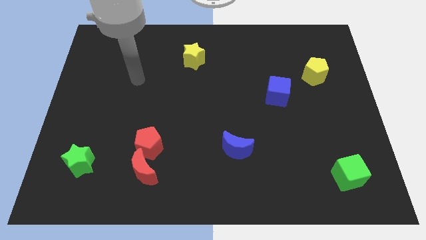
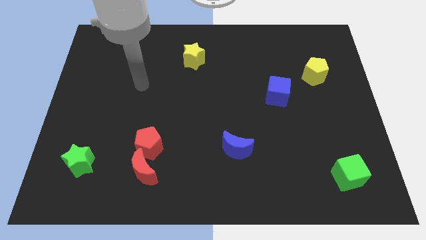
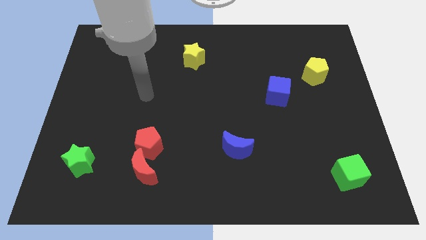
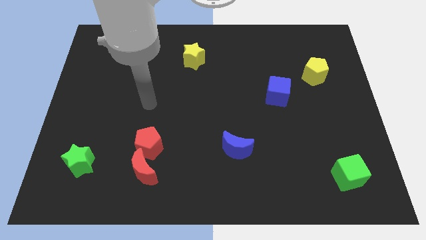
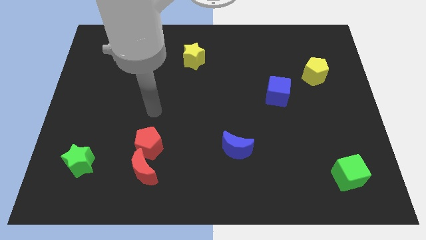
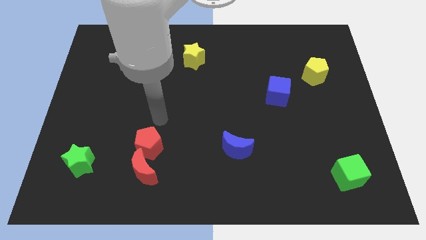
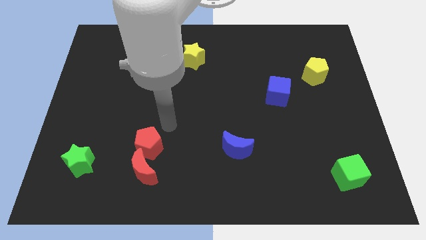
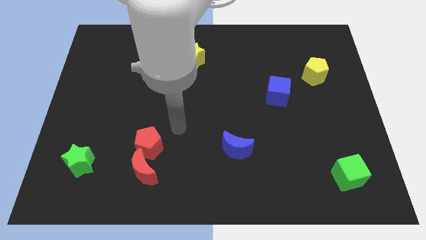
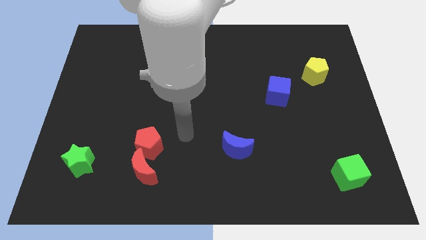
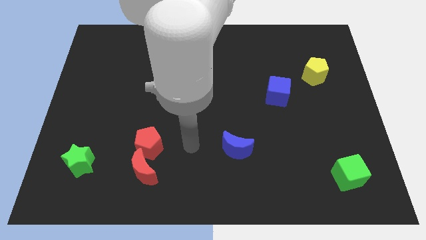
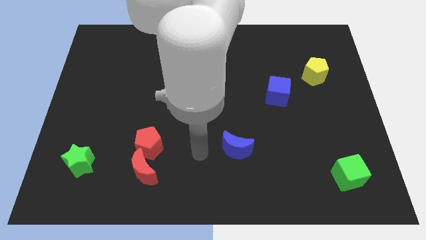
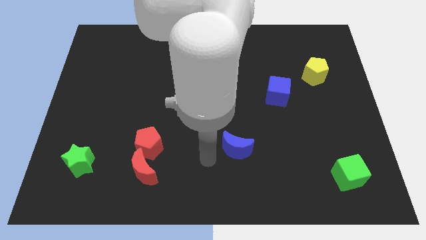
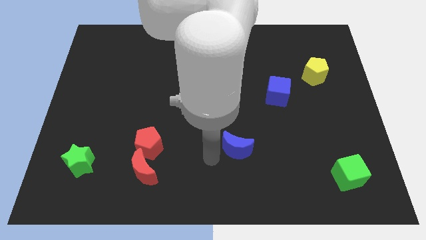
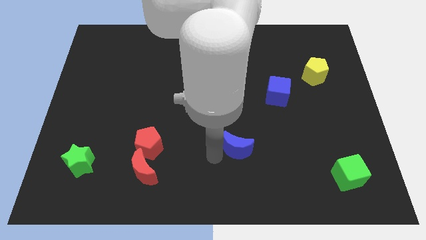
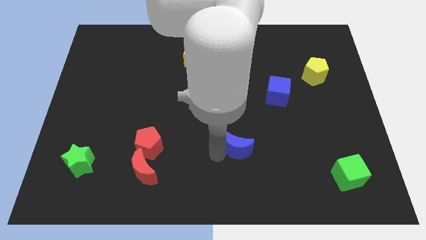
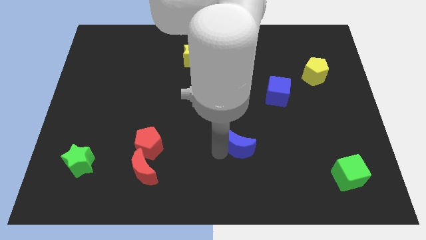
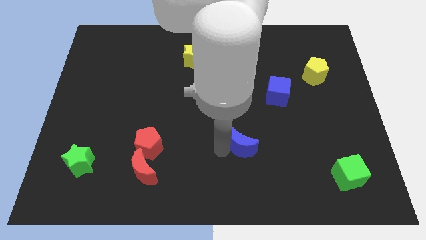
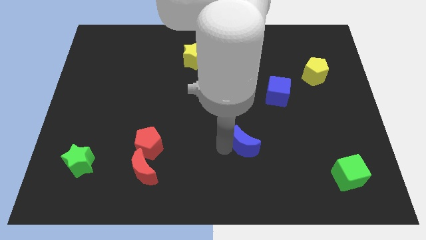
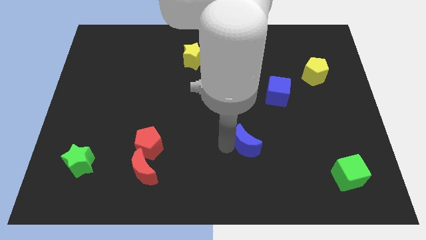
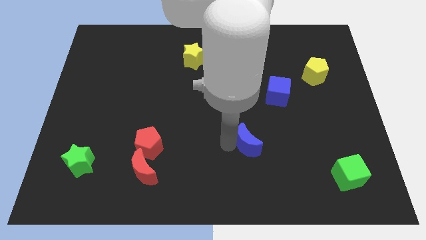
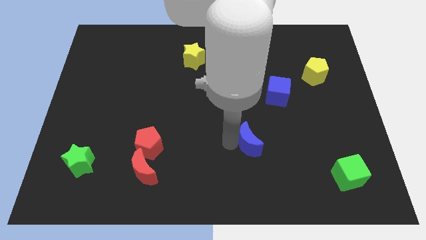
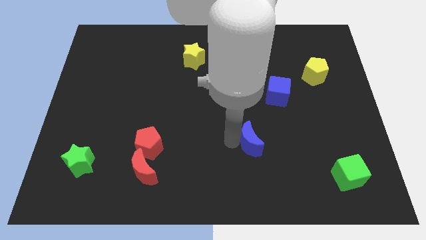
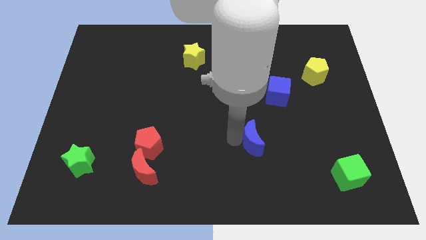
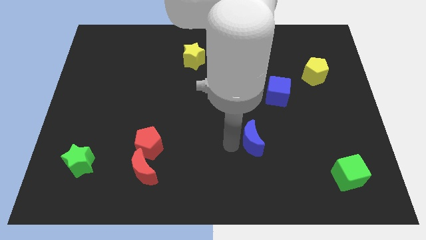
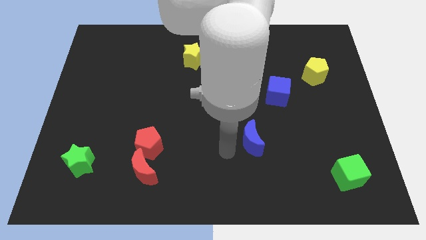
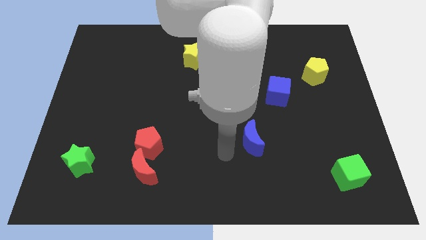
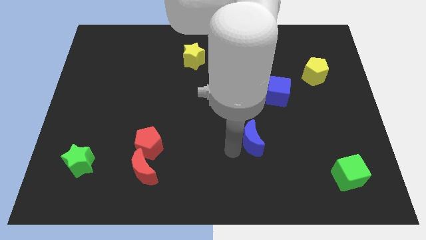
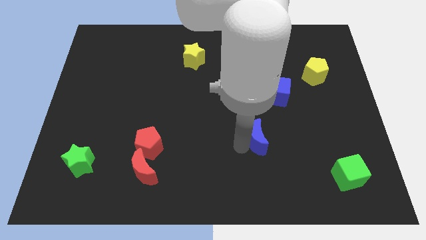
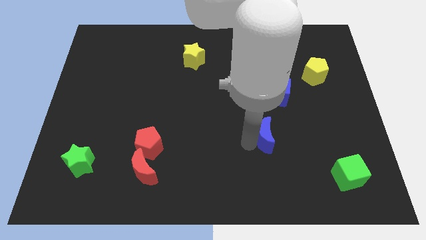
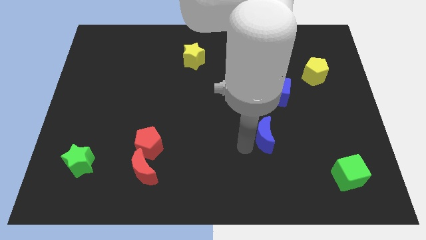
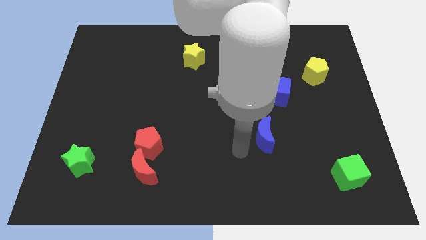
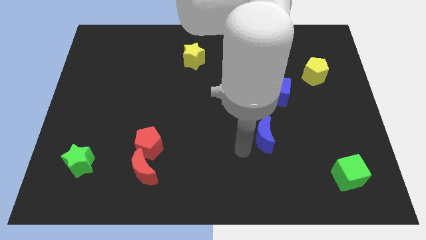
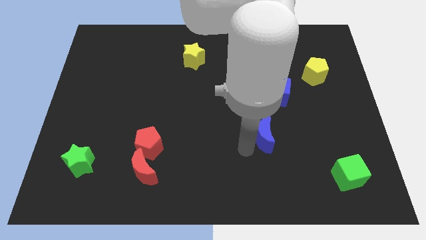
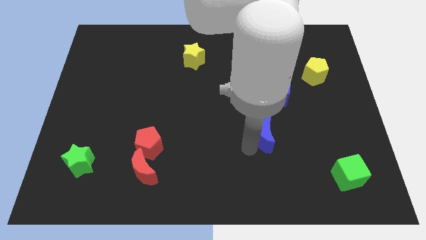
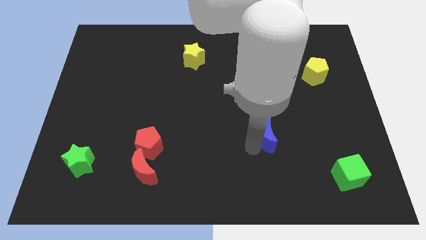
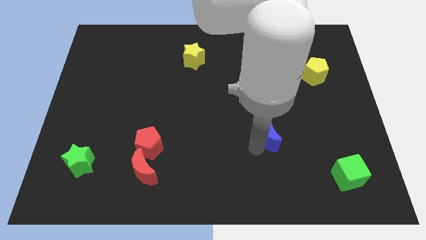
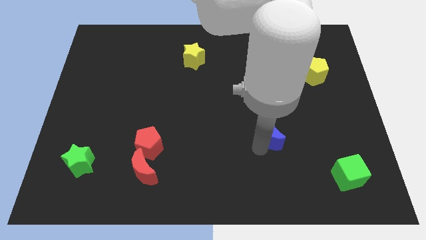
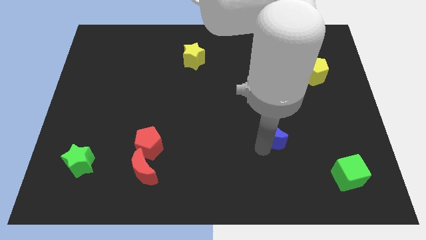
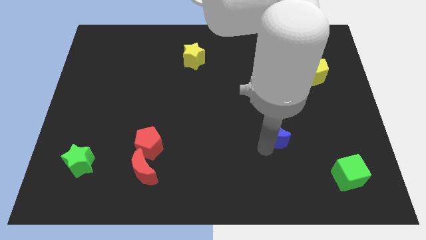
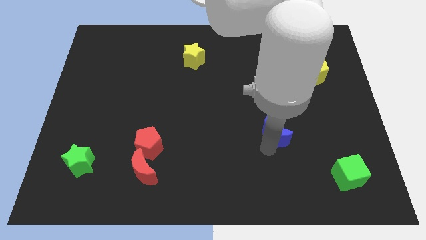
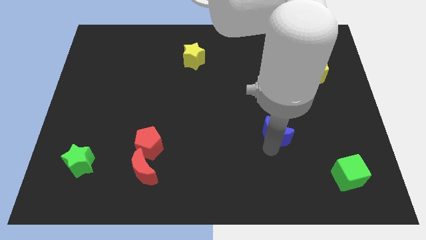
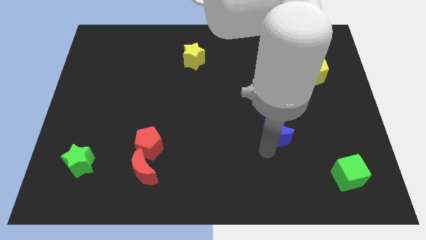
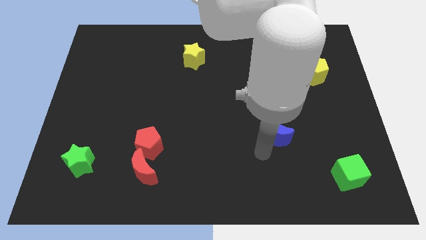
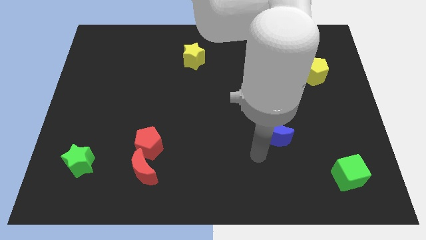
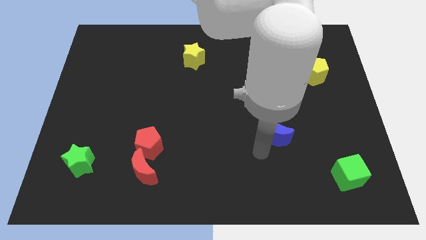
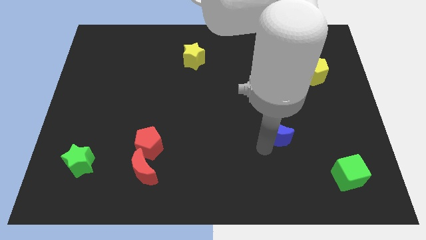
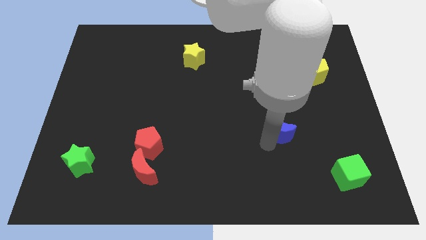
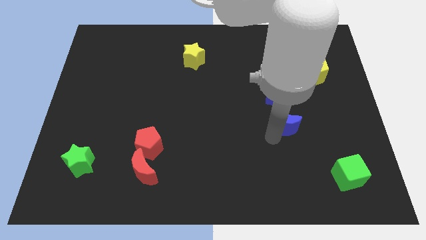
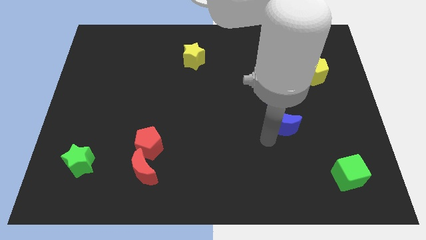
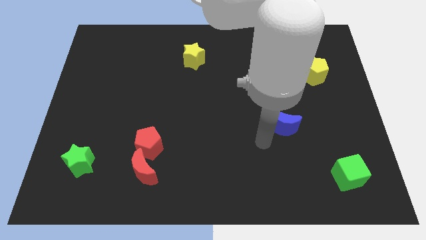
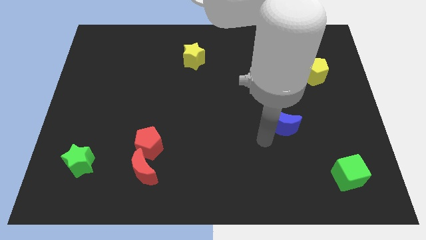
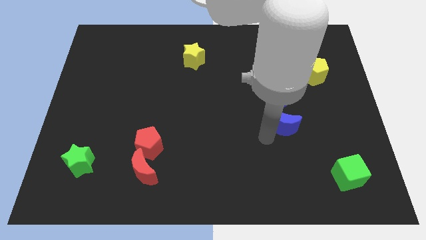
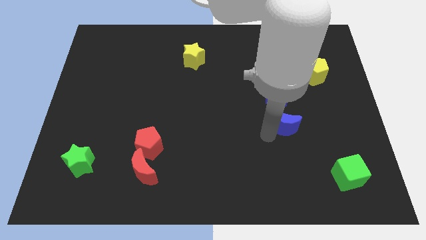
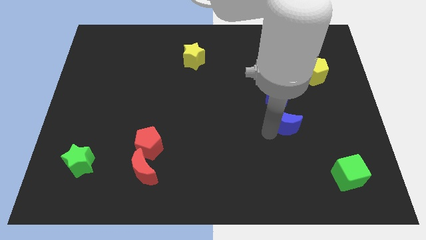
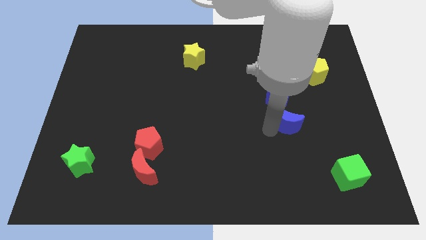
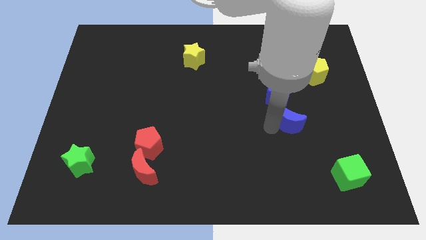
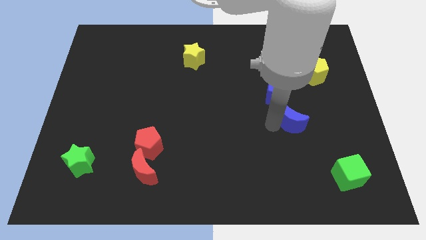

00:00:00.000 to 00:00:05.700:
move the blue moon diagonally down and to the right of the blue cube

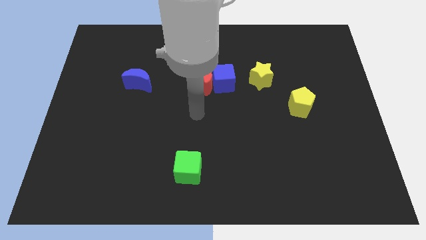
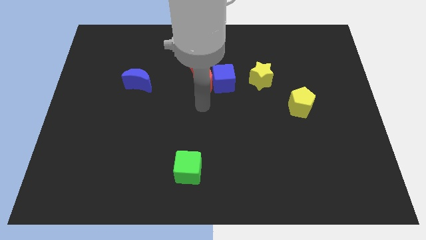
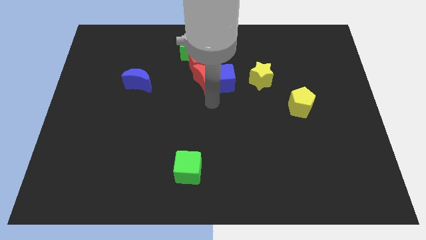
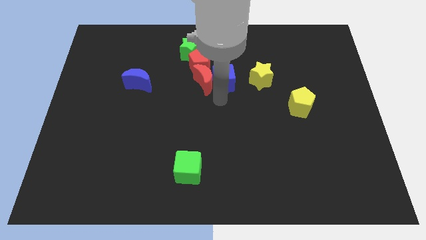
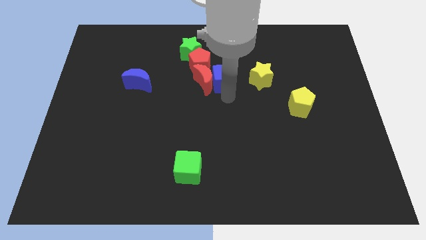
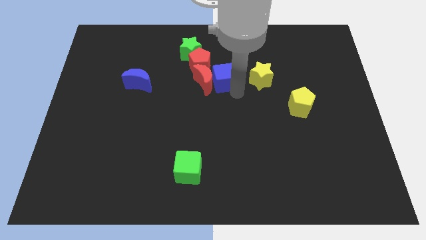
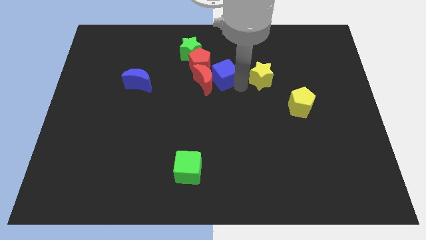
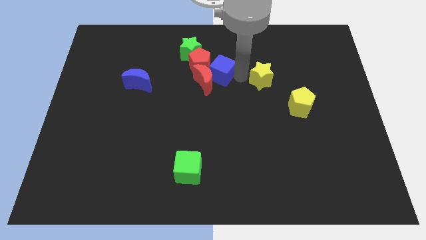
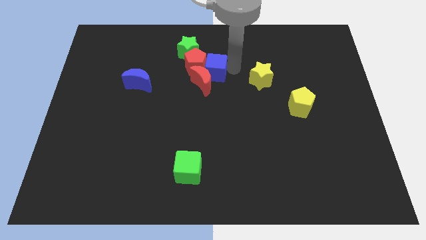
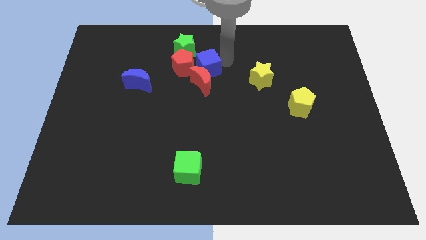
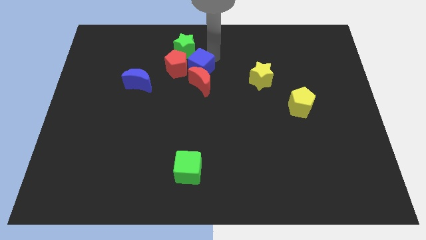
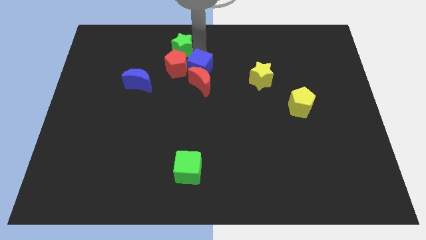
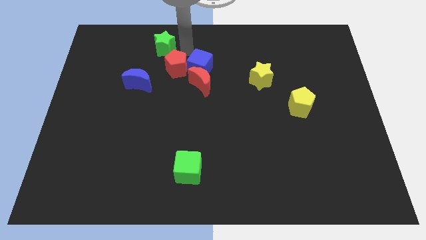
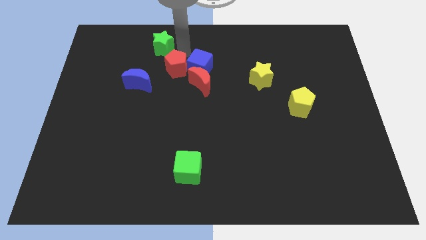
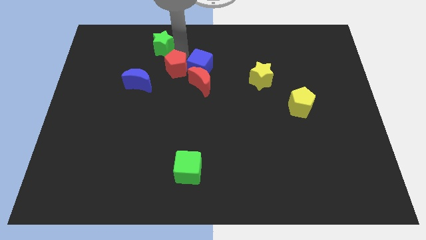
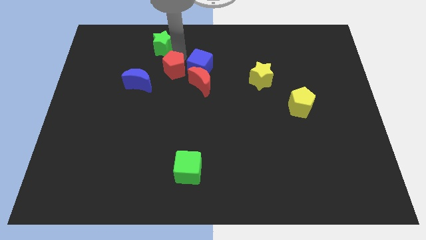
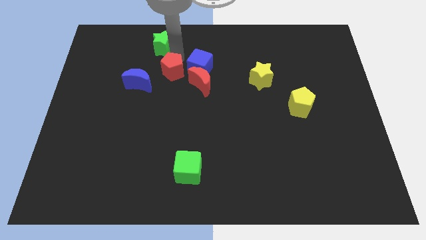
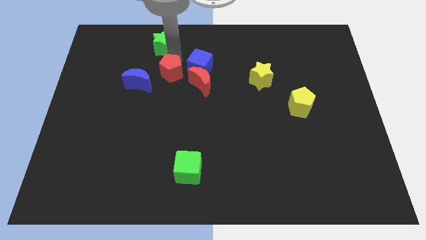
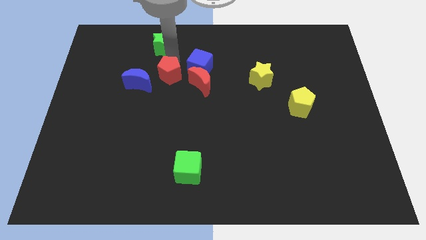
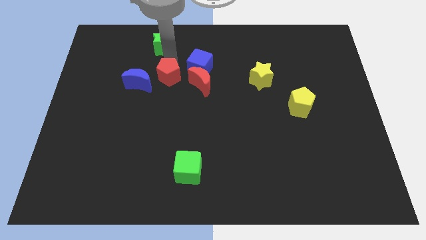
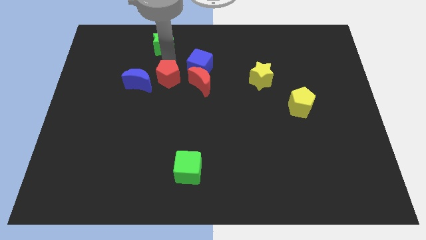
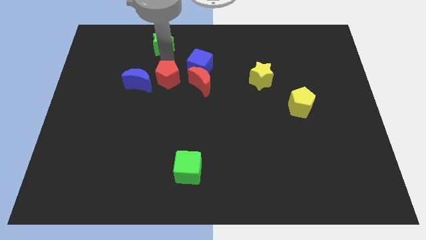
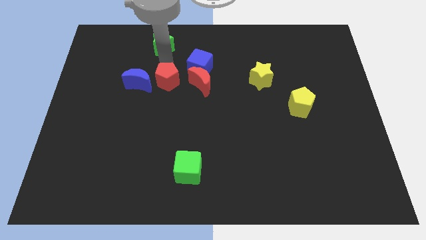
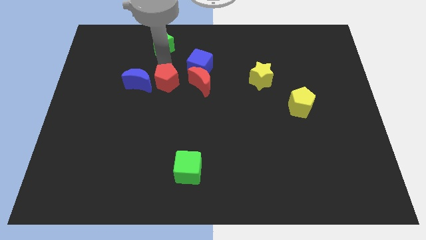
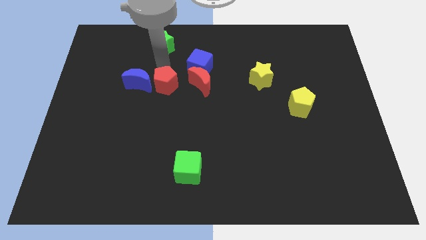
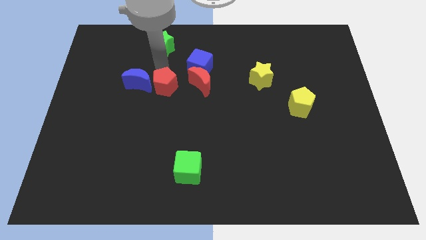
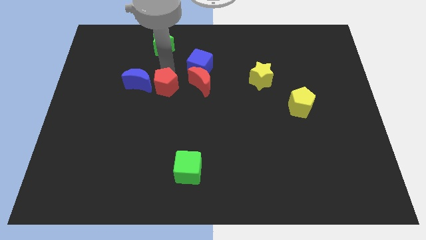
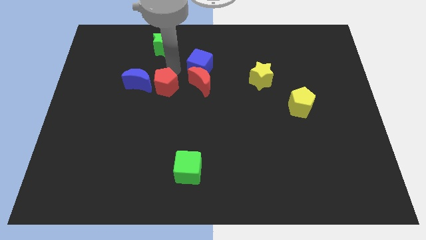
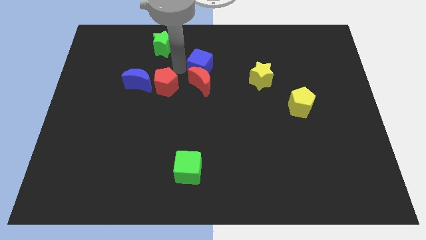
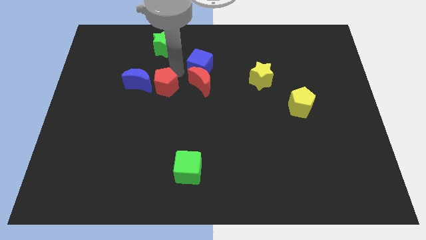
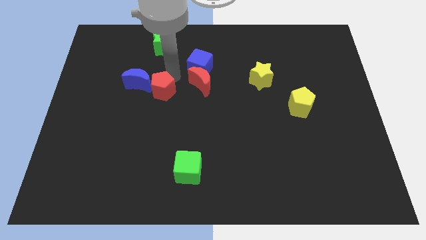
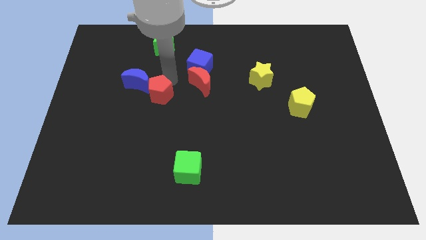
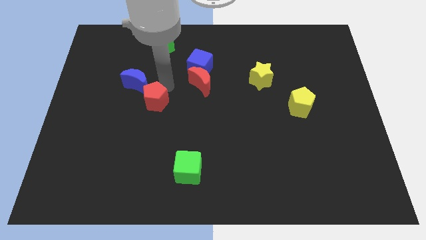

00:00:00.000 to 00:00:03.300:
put the red pentagon below the blue moon
